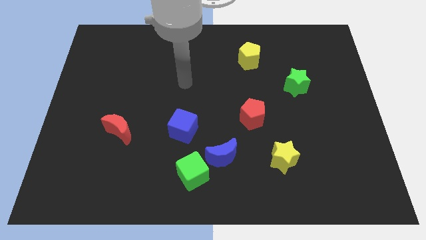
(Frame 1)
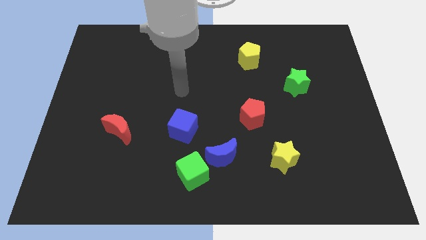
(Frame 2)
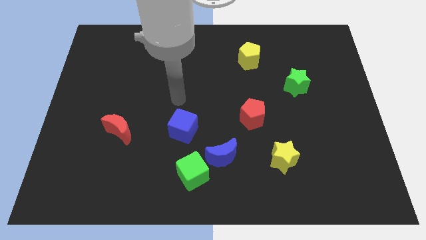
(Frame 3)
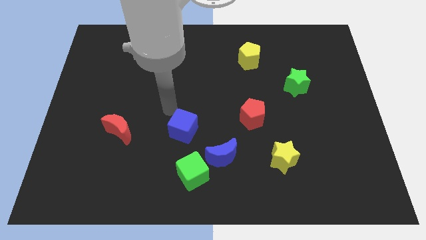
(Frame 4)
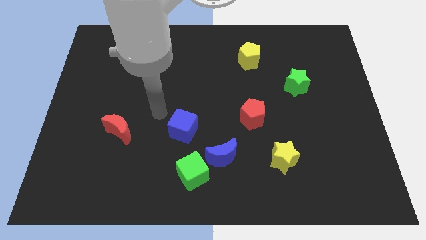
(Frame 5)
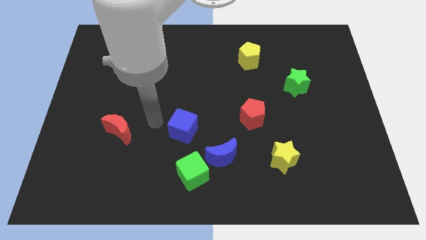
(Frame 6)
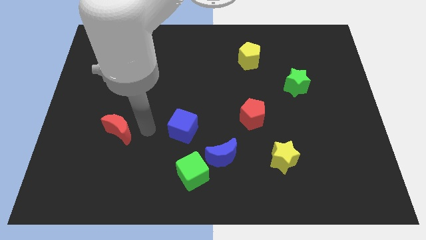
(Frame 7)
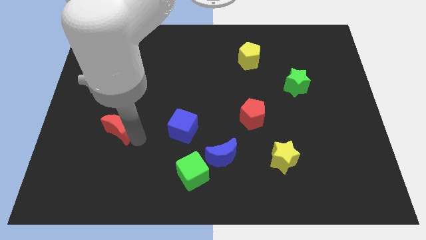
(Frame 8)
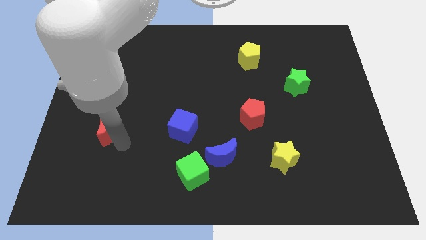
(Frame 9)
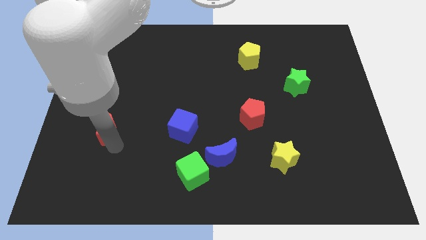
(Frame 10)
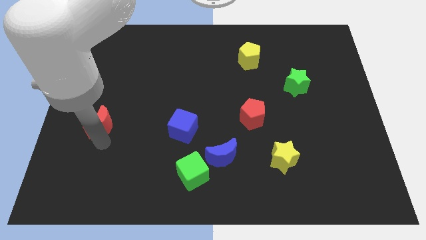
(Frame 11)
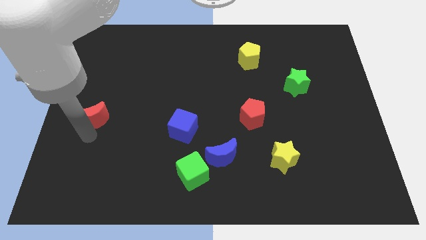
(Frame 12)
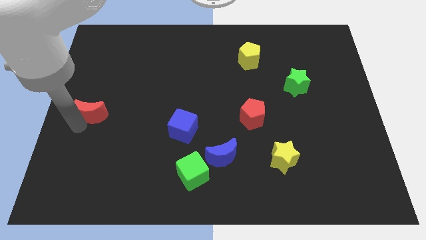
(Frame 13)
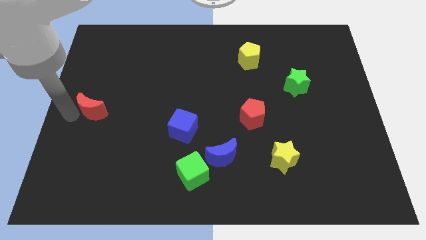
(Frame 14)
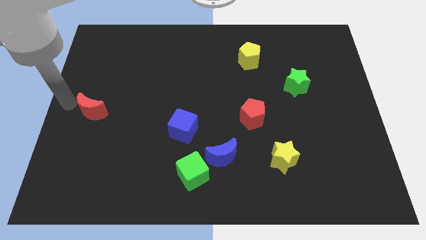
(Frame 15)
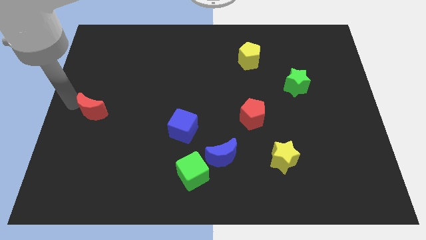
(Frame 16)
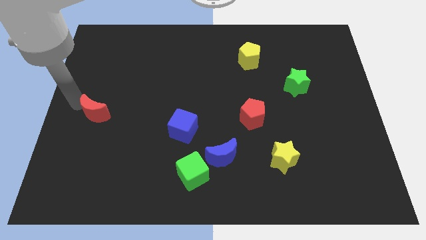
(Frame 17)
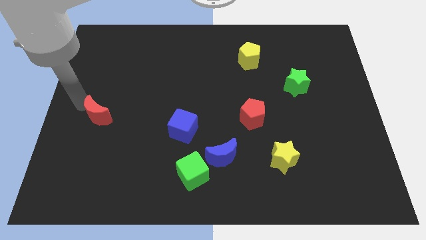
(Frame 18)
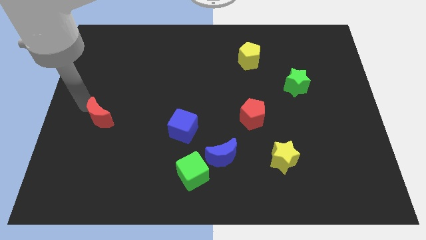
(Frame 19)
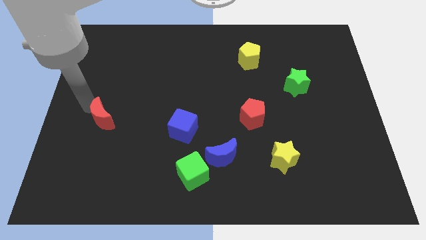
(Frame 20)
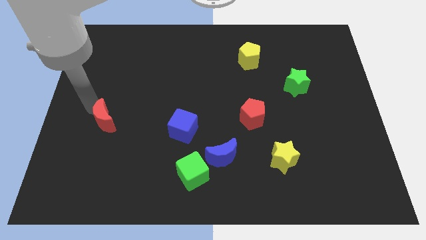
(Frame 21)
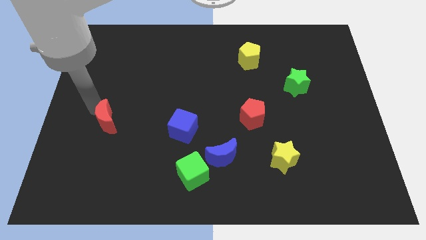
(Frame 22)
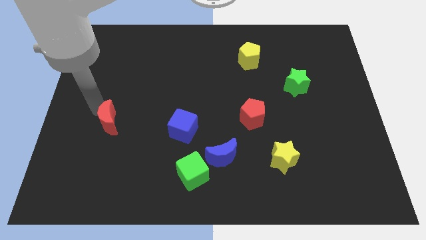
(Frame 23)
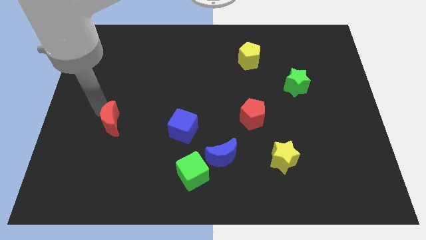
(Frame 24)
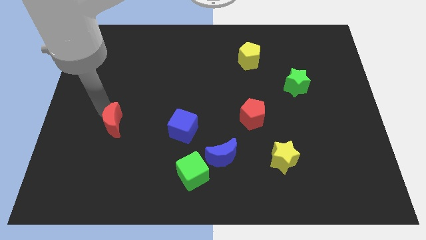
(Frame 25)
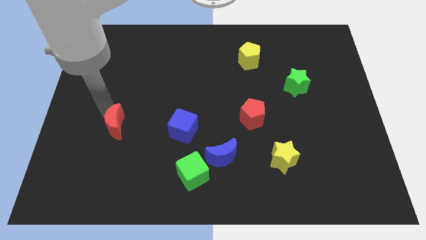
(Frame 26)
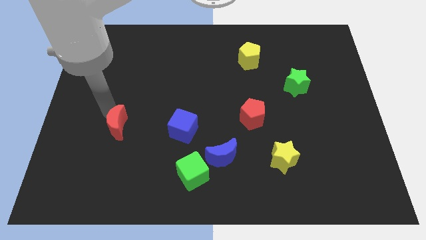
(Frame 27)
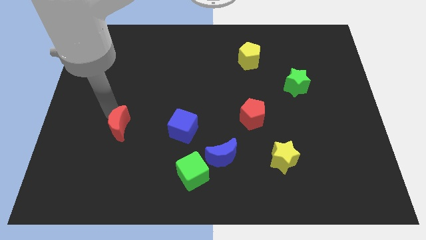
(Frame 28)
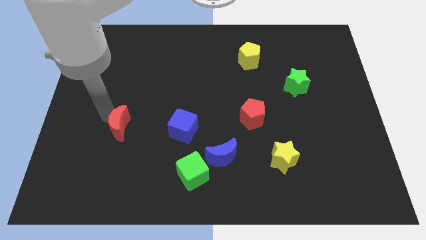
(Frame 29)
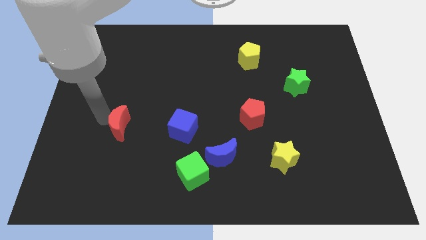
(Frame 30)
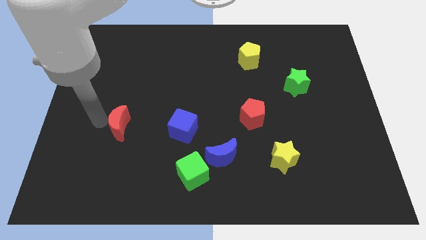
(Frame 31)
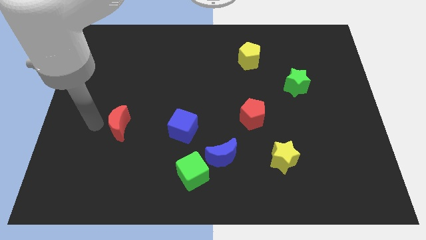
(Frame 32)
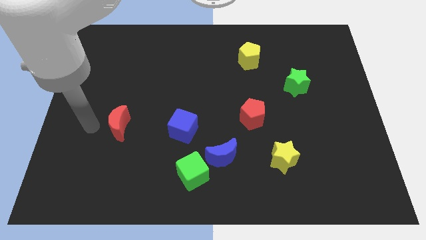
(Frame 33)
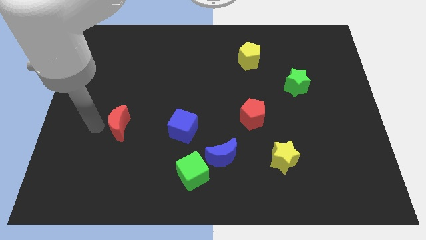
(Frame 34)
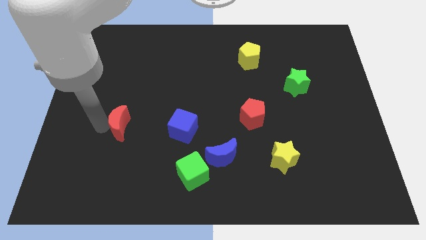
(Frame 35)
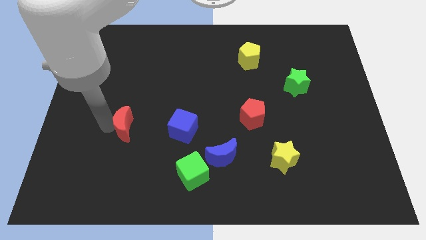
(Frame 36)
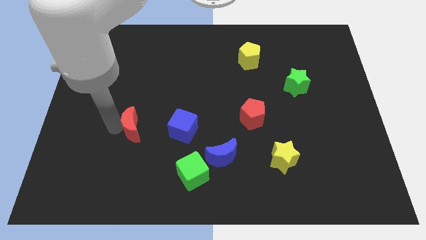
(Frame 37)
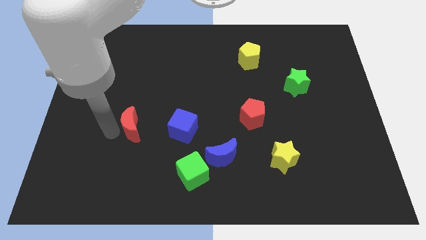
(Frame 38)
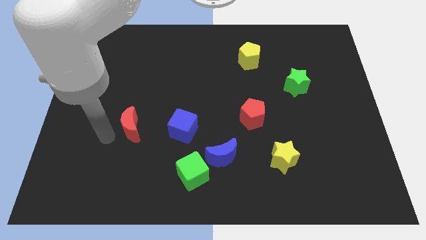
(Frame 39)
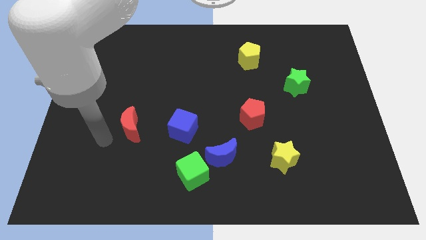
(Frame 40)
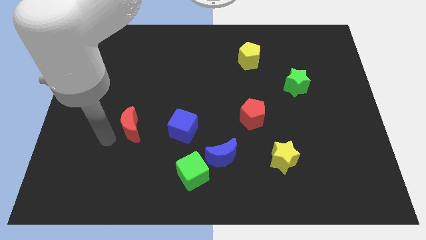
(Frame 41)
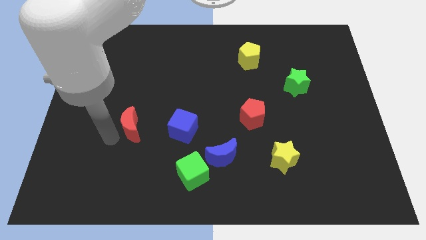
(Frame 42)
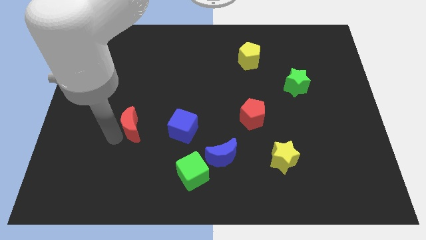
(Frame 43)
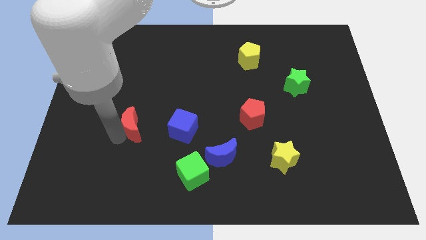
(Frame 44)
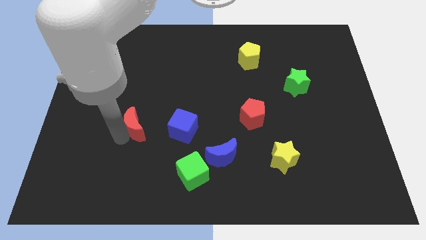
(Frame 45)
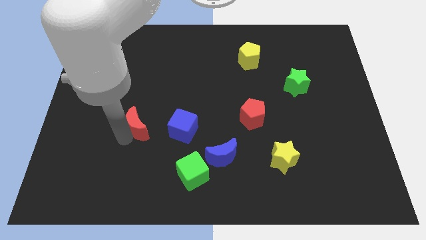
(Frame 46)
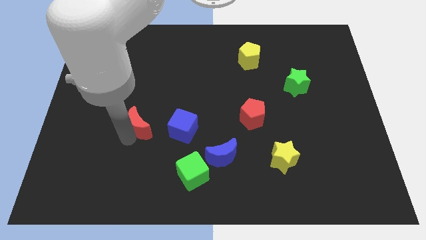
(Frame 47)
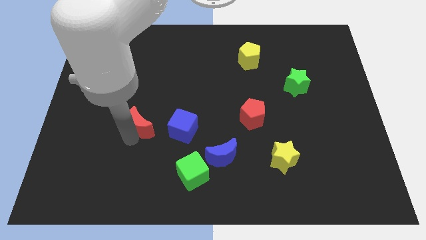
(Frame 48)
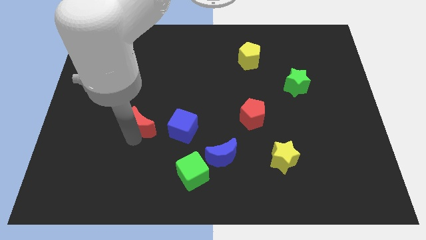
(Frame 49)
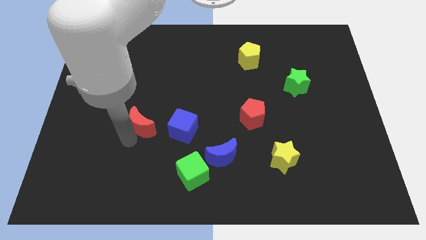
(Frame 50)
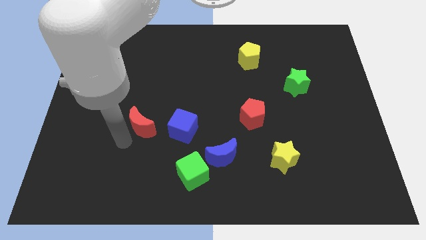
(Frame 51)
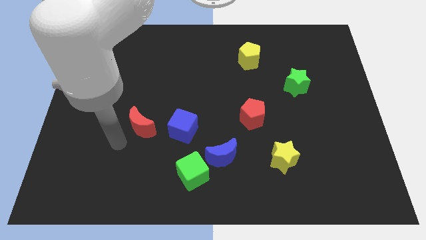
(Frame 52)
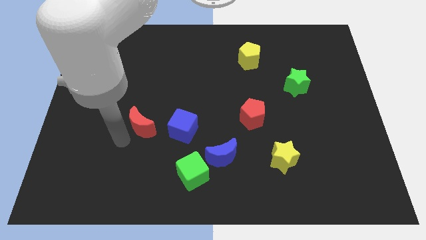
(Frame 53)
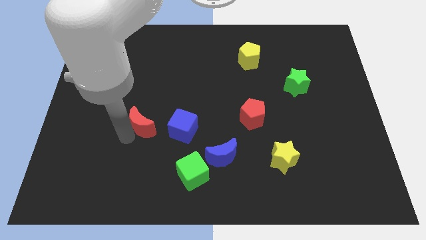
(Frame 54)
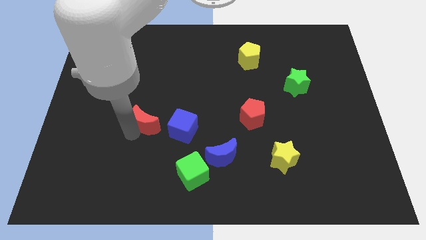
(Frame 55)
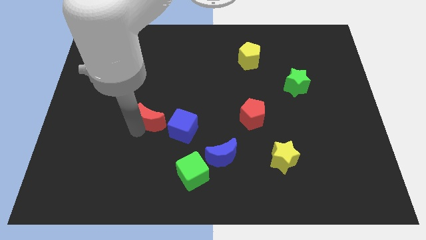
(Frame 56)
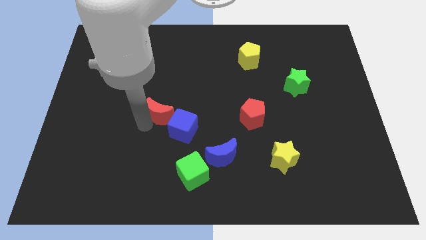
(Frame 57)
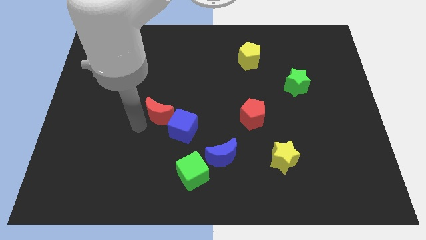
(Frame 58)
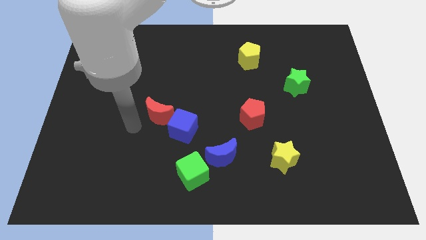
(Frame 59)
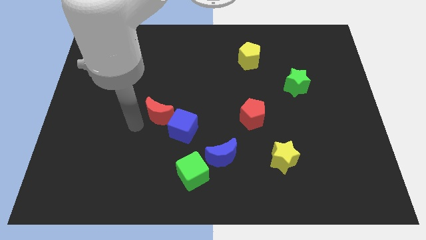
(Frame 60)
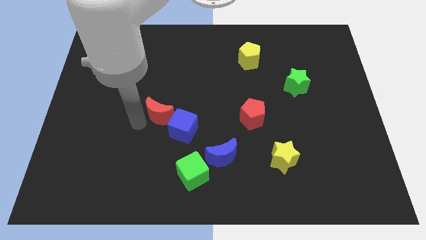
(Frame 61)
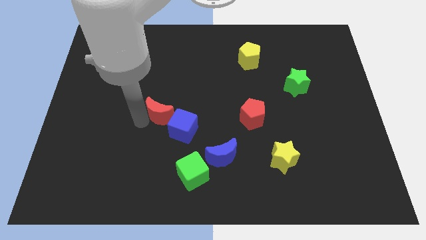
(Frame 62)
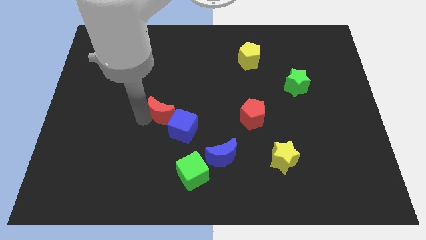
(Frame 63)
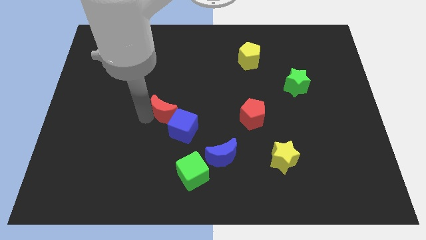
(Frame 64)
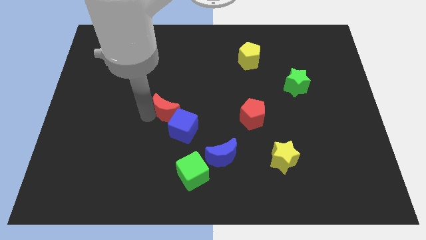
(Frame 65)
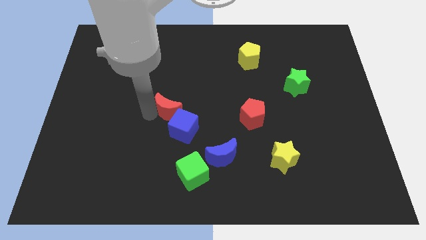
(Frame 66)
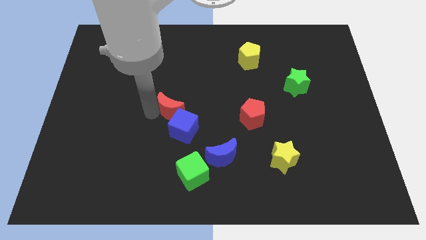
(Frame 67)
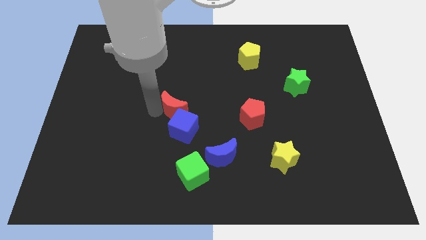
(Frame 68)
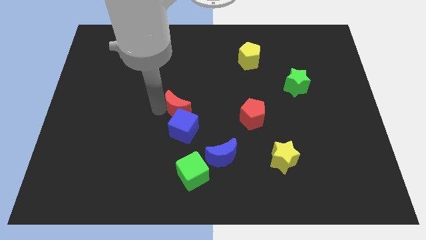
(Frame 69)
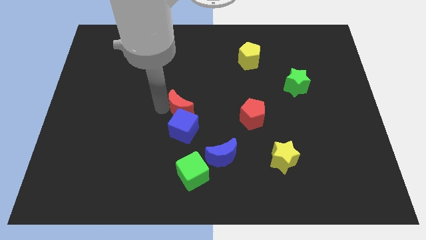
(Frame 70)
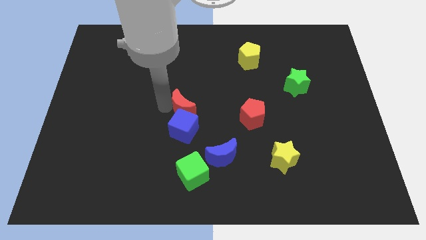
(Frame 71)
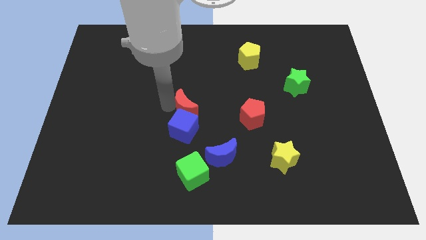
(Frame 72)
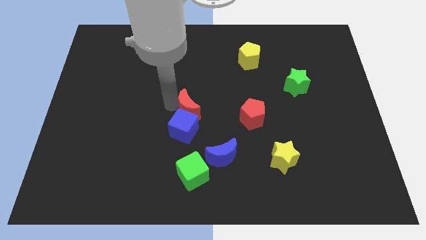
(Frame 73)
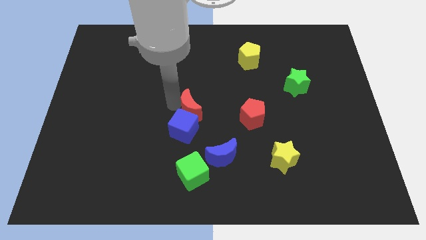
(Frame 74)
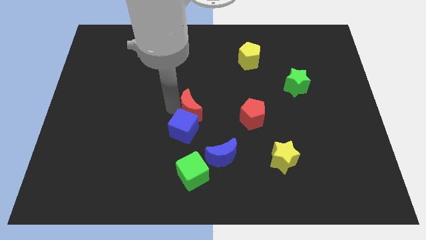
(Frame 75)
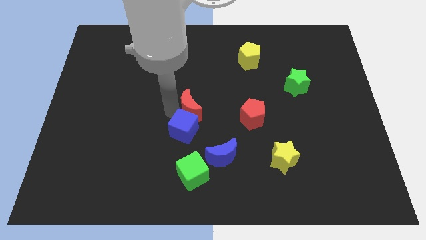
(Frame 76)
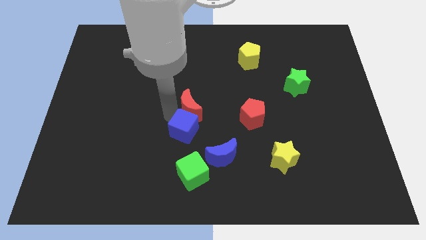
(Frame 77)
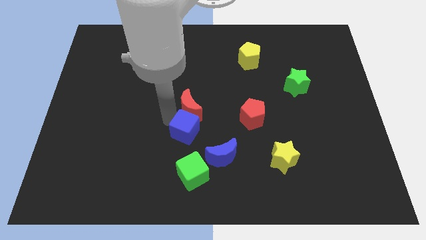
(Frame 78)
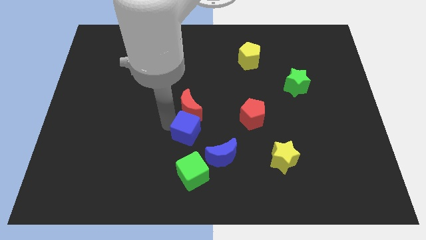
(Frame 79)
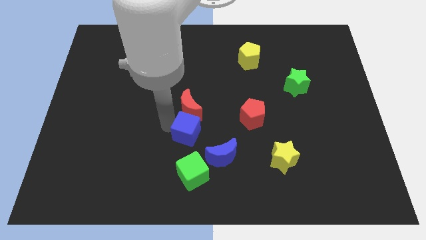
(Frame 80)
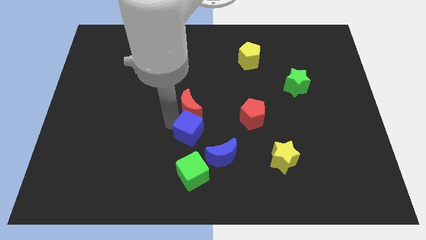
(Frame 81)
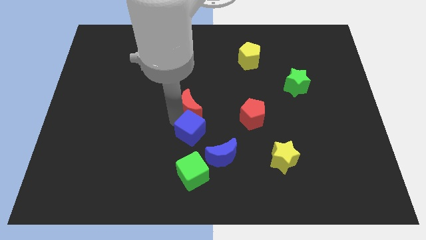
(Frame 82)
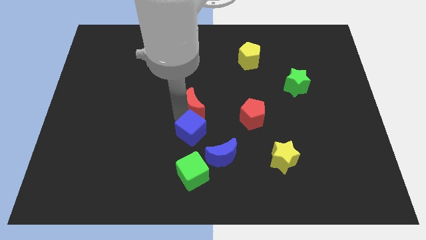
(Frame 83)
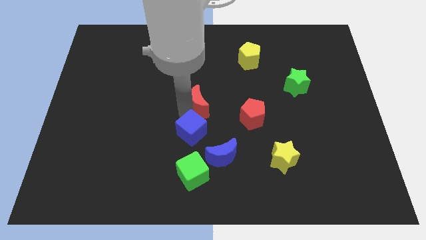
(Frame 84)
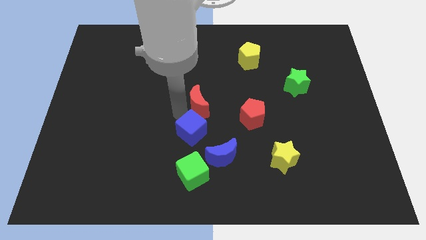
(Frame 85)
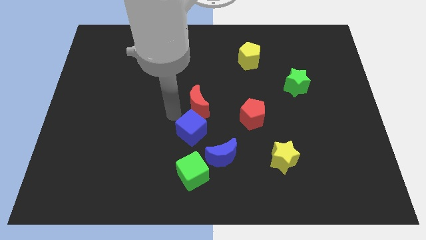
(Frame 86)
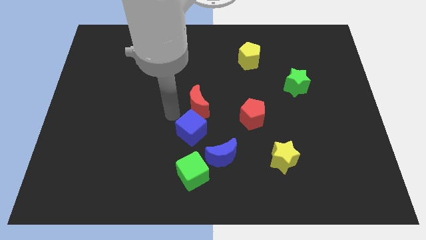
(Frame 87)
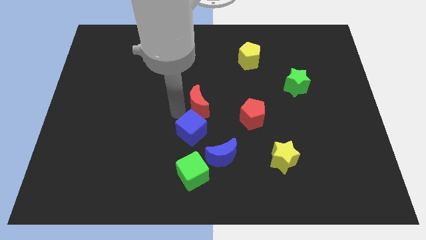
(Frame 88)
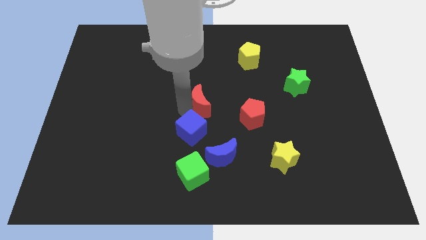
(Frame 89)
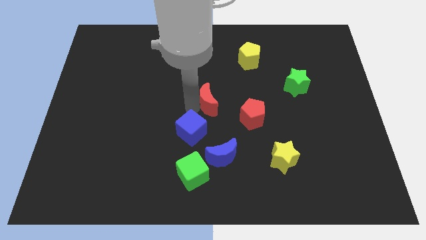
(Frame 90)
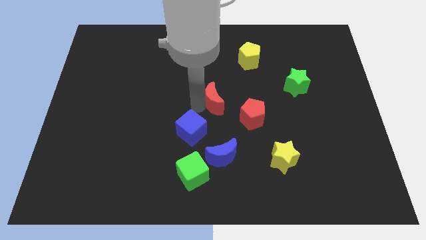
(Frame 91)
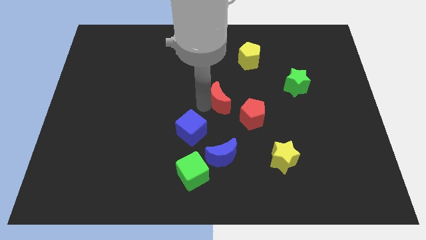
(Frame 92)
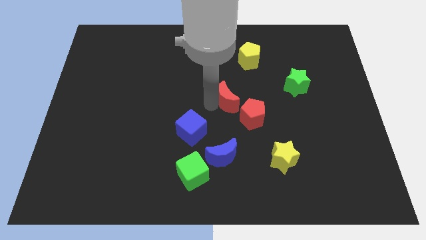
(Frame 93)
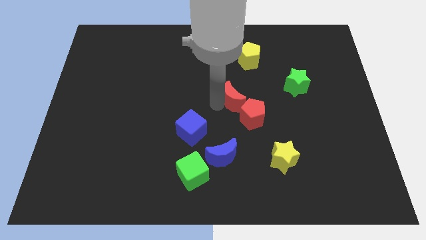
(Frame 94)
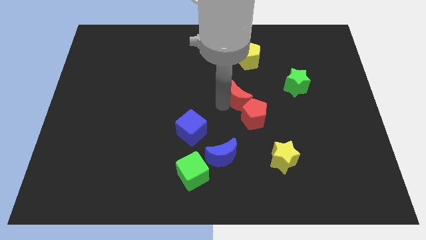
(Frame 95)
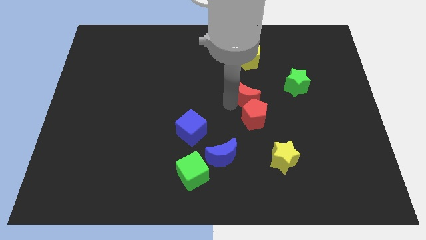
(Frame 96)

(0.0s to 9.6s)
push the red moon left of the green star
